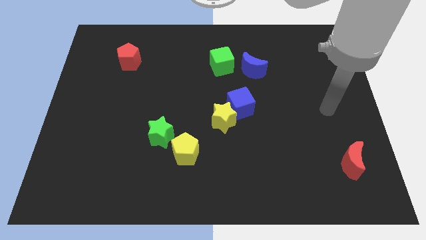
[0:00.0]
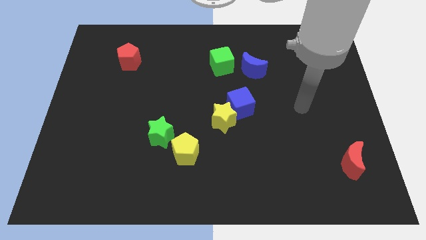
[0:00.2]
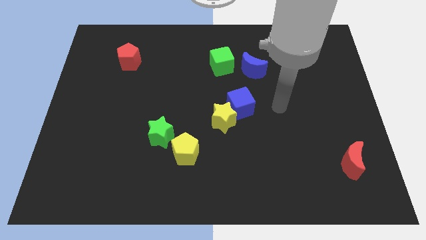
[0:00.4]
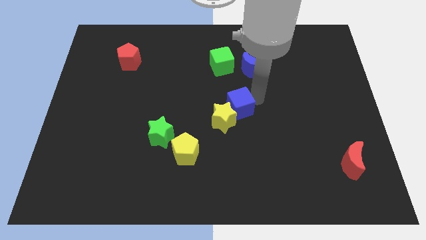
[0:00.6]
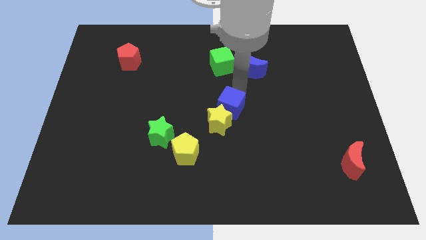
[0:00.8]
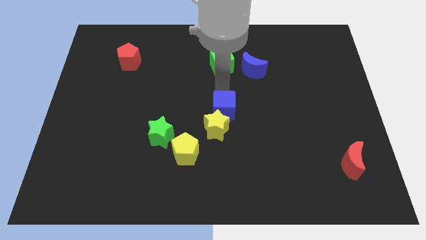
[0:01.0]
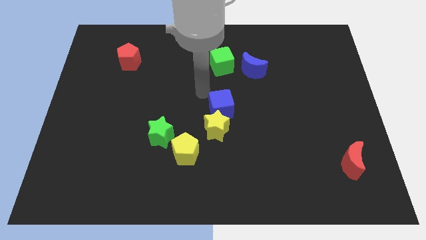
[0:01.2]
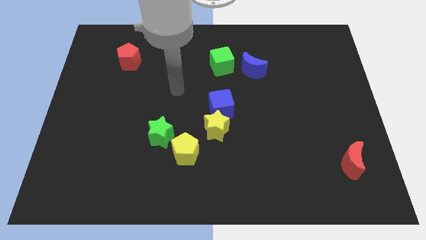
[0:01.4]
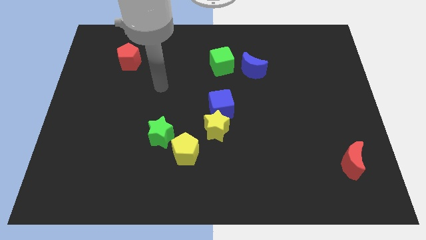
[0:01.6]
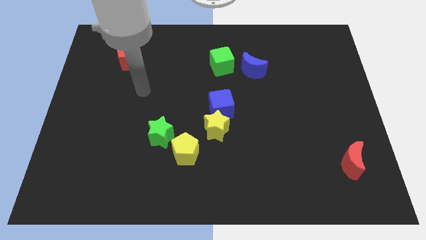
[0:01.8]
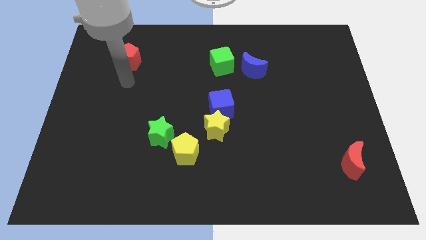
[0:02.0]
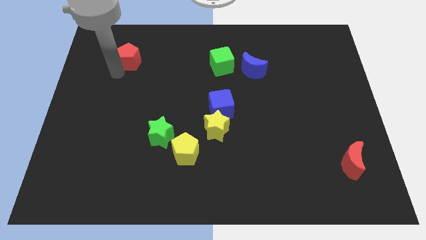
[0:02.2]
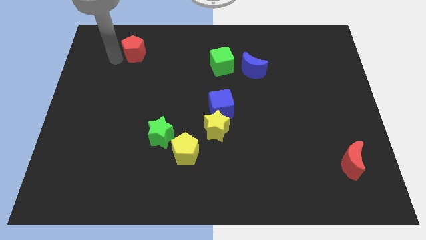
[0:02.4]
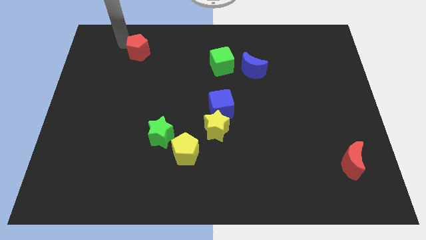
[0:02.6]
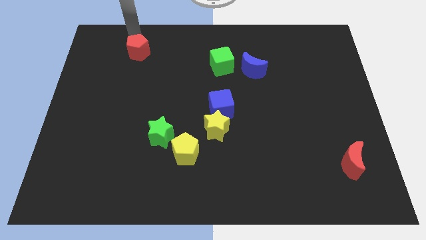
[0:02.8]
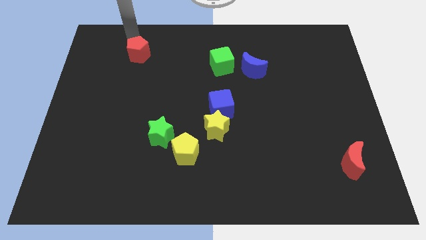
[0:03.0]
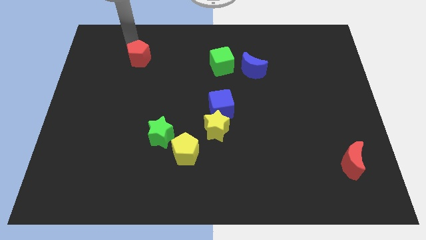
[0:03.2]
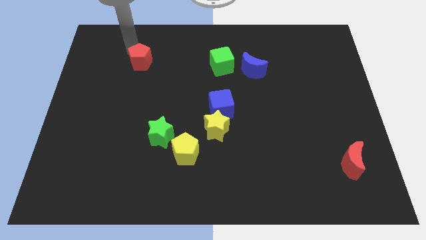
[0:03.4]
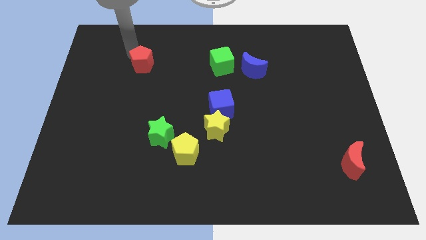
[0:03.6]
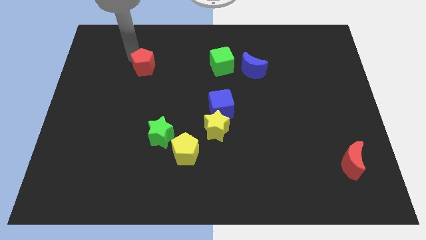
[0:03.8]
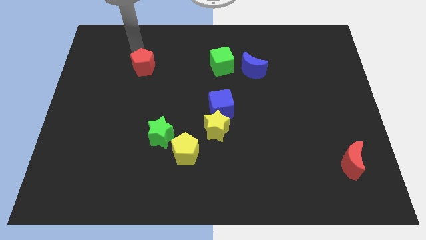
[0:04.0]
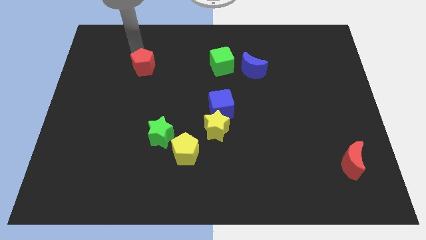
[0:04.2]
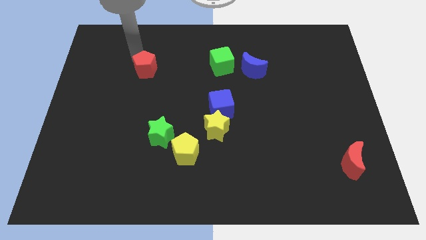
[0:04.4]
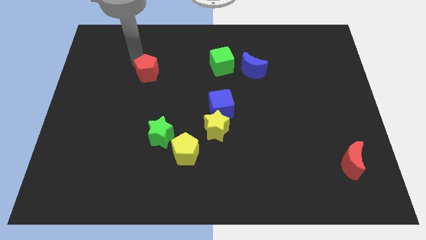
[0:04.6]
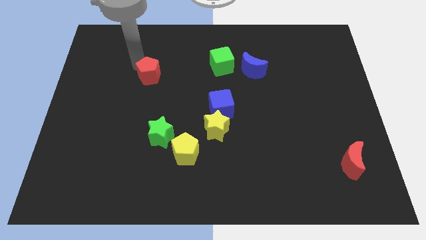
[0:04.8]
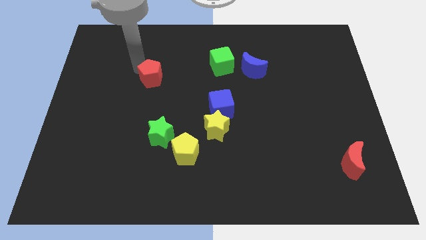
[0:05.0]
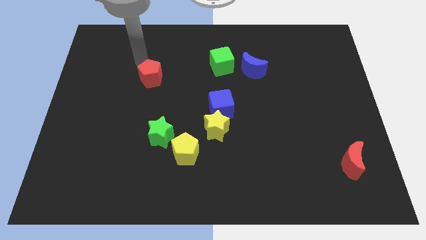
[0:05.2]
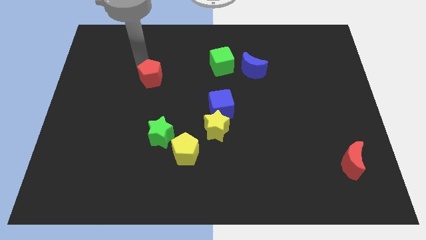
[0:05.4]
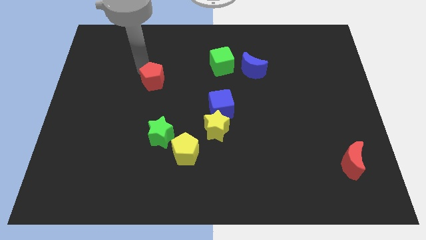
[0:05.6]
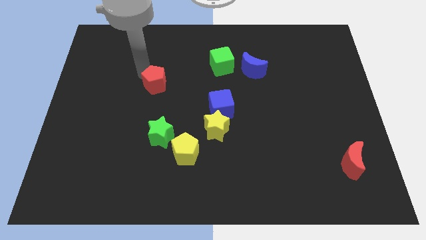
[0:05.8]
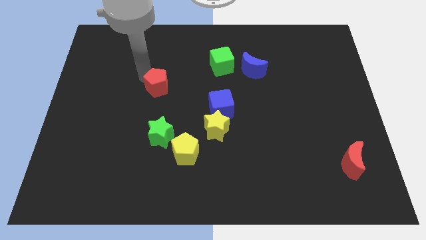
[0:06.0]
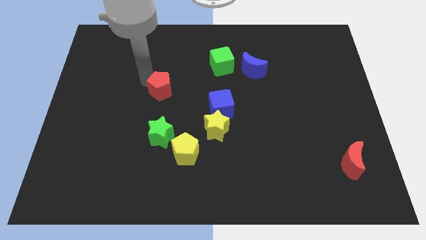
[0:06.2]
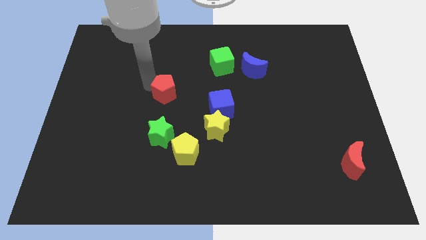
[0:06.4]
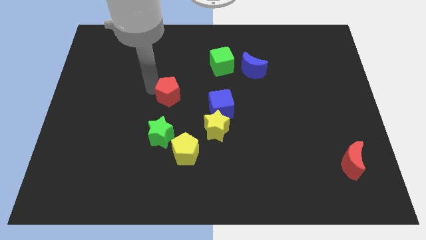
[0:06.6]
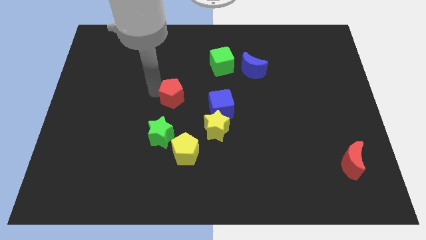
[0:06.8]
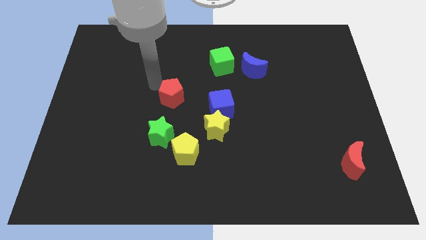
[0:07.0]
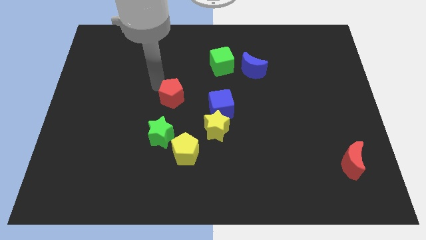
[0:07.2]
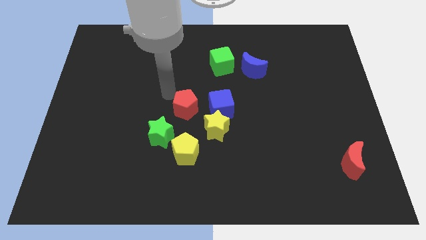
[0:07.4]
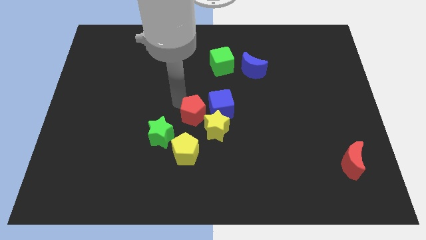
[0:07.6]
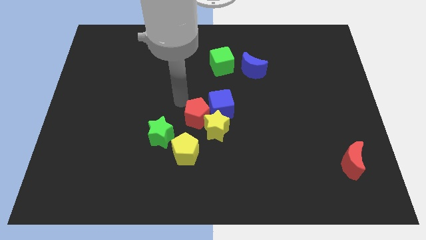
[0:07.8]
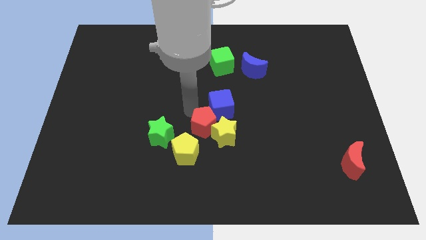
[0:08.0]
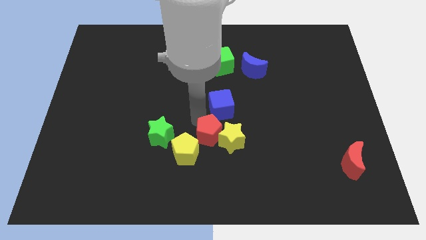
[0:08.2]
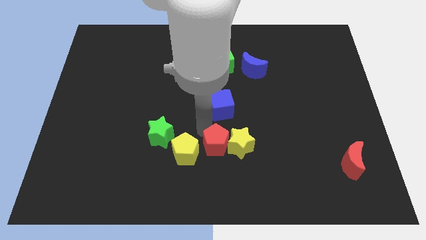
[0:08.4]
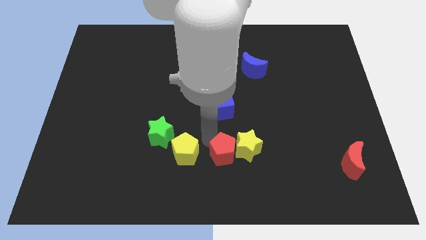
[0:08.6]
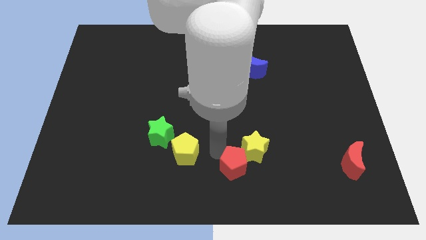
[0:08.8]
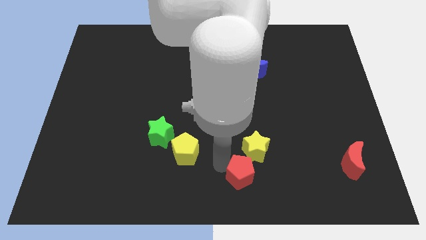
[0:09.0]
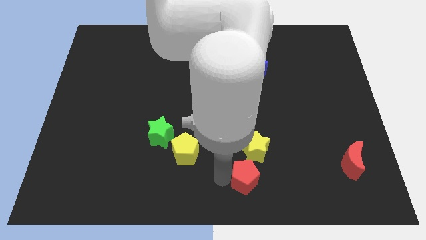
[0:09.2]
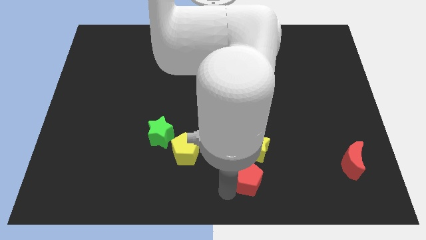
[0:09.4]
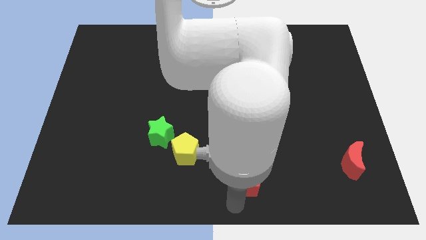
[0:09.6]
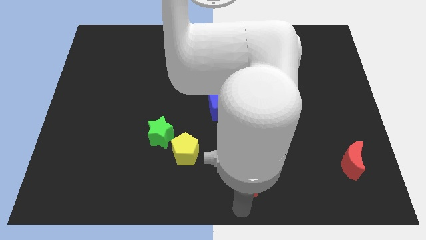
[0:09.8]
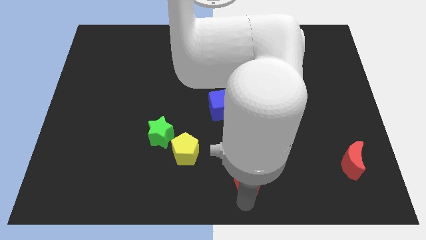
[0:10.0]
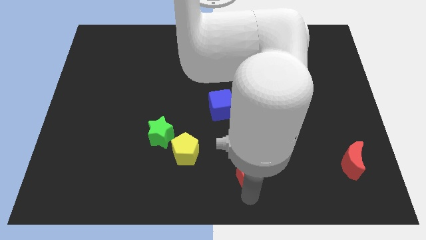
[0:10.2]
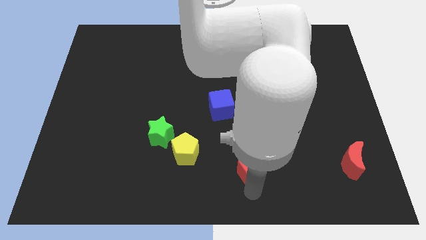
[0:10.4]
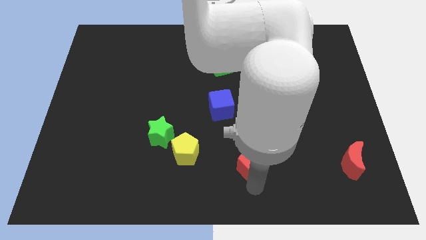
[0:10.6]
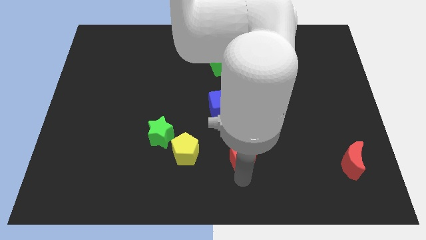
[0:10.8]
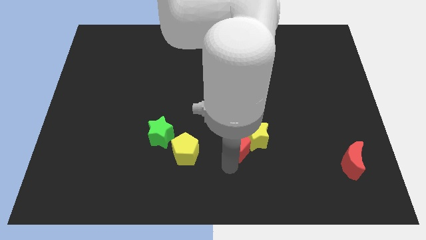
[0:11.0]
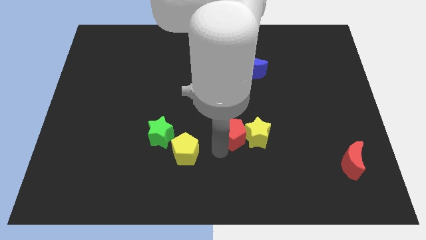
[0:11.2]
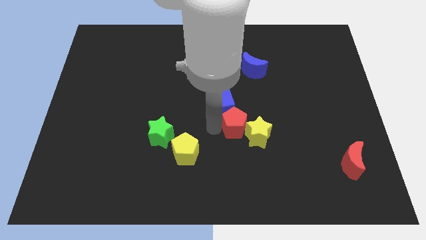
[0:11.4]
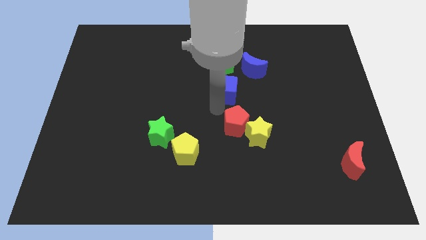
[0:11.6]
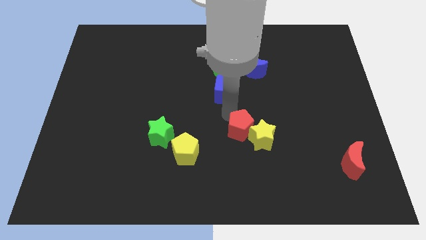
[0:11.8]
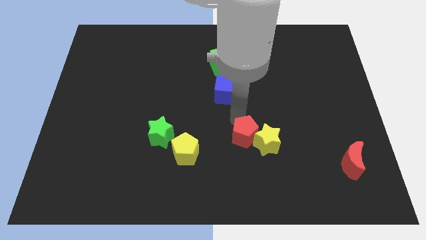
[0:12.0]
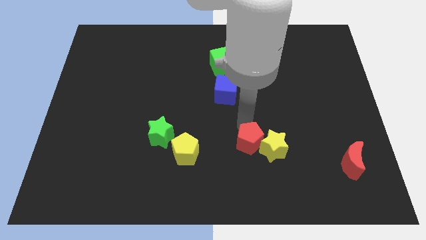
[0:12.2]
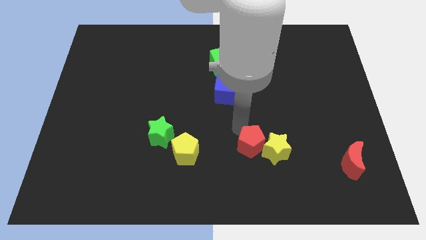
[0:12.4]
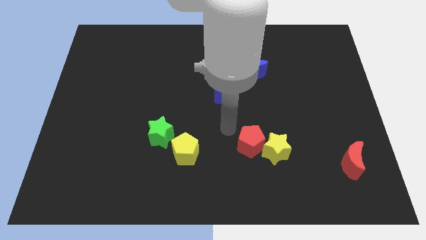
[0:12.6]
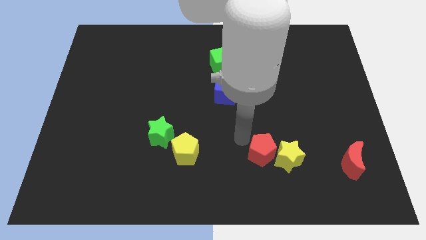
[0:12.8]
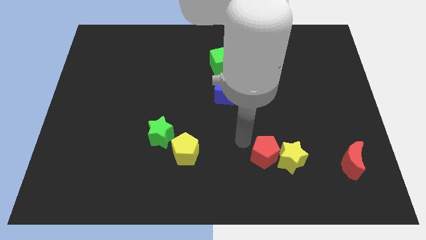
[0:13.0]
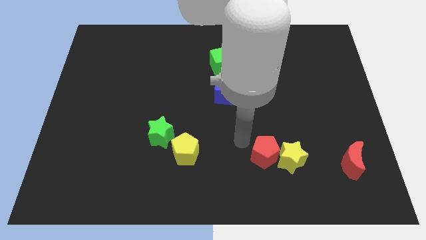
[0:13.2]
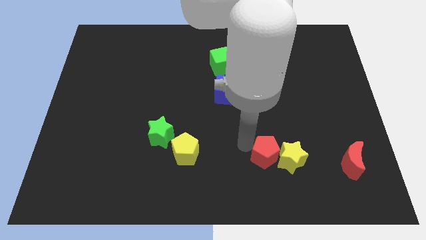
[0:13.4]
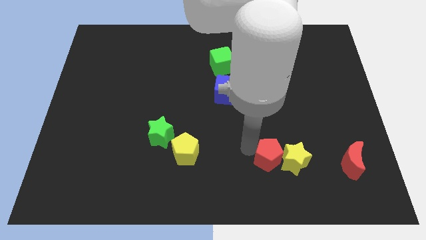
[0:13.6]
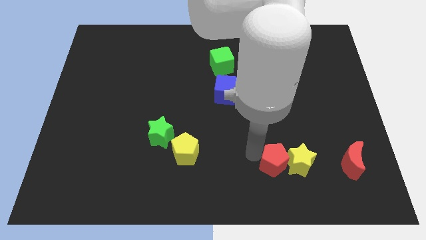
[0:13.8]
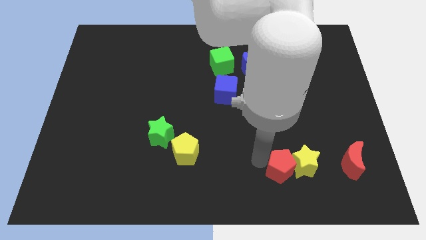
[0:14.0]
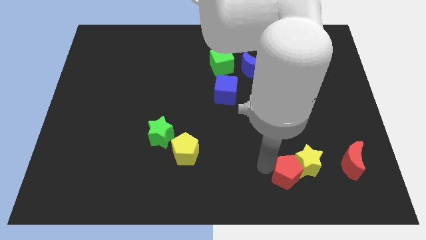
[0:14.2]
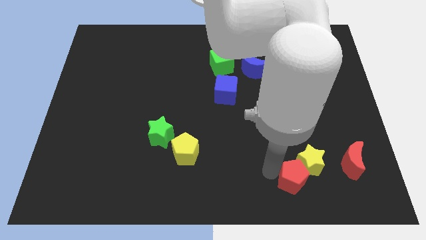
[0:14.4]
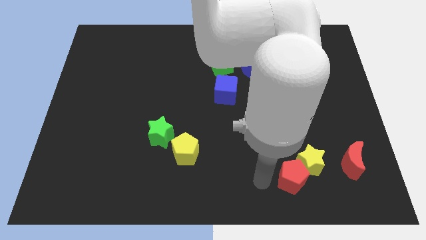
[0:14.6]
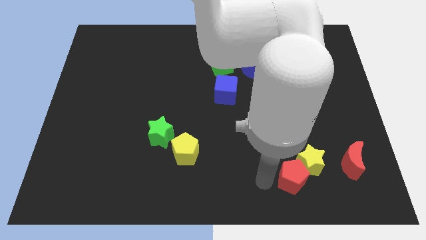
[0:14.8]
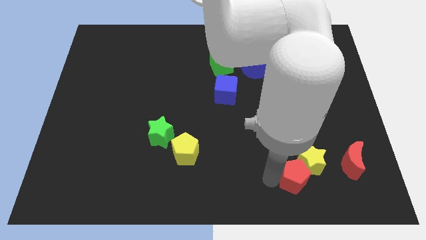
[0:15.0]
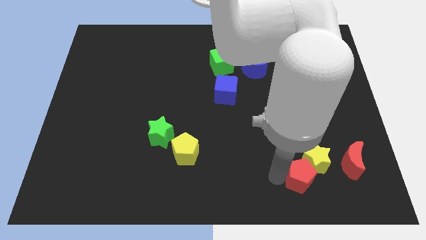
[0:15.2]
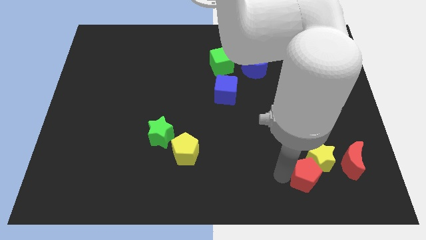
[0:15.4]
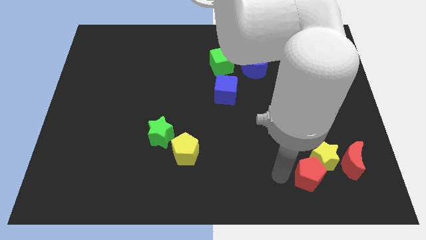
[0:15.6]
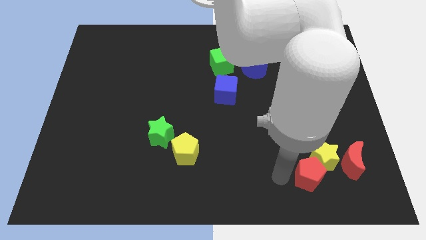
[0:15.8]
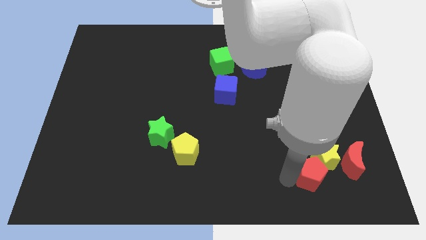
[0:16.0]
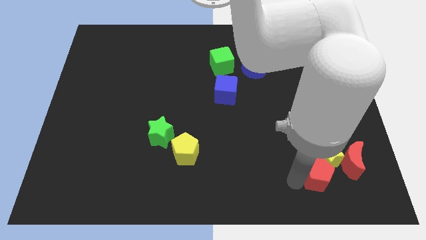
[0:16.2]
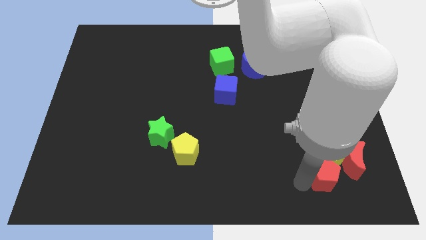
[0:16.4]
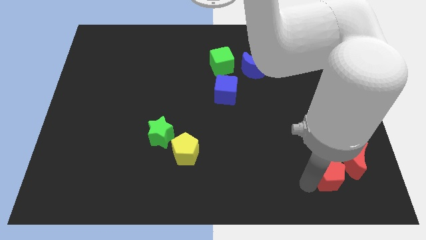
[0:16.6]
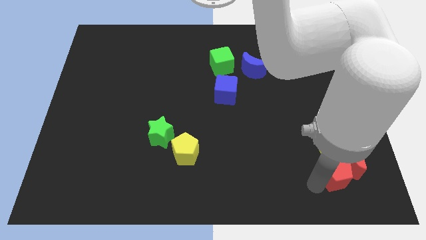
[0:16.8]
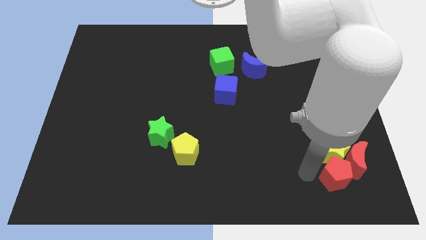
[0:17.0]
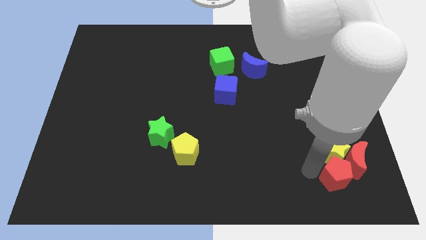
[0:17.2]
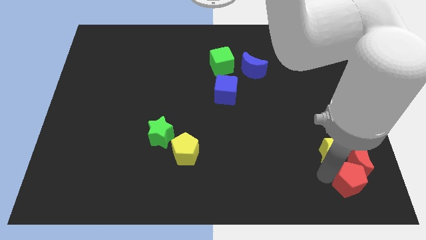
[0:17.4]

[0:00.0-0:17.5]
move the red pentagon to the bottom right of the board
